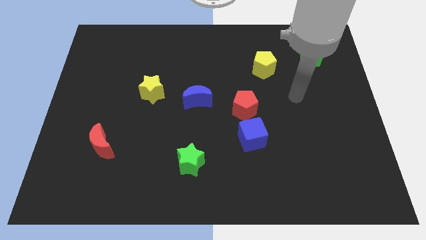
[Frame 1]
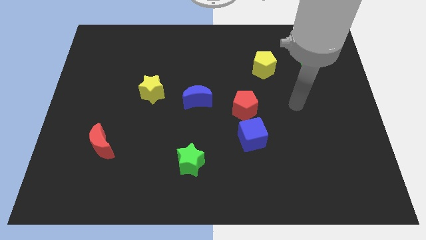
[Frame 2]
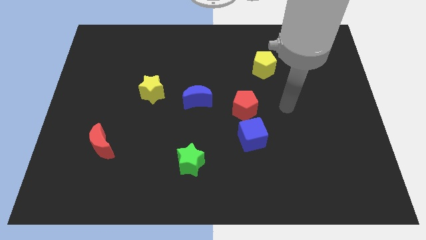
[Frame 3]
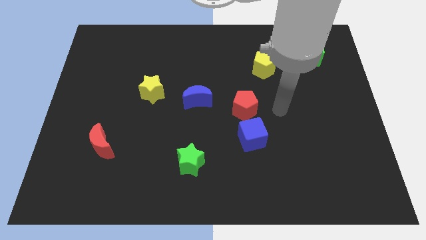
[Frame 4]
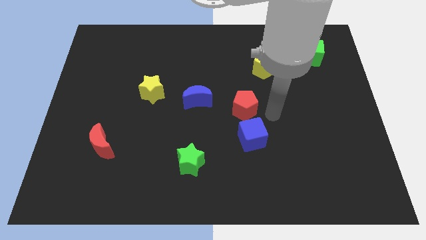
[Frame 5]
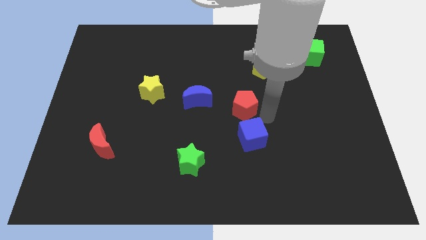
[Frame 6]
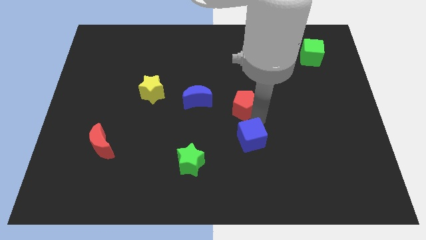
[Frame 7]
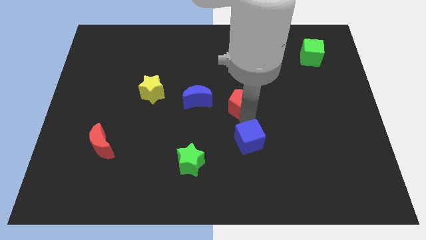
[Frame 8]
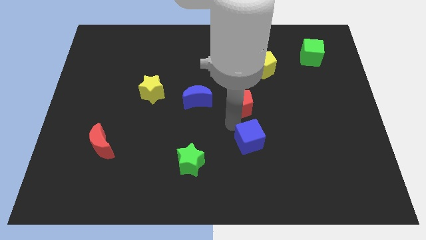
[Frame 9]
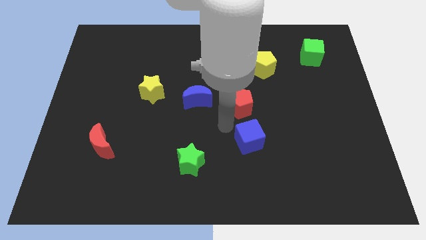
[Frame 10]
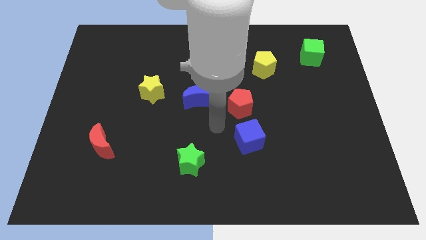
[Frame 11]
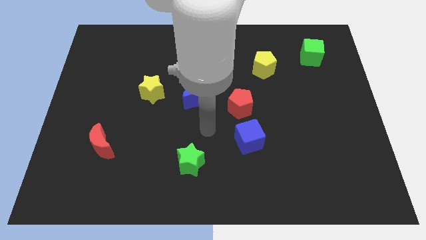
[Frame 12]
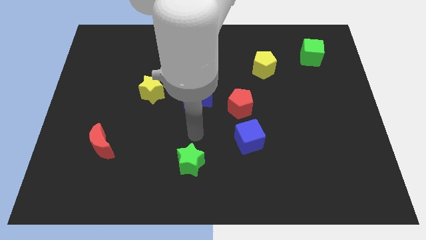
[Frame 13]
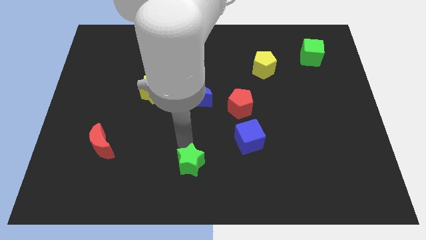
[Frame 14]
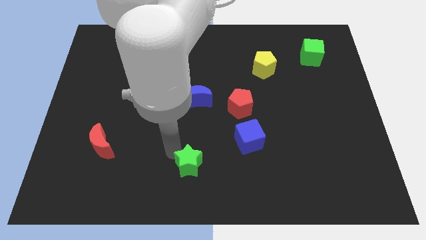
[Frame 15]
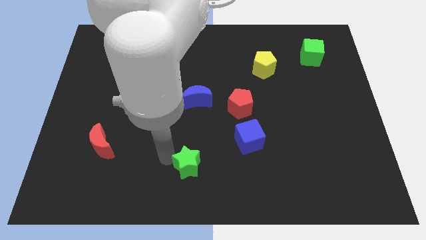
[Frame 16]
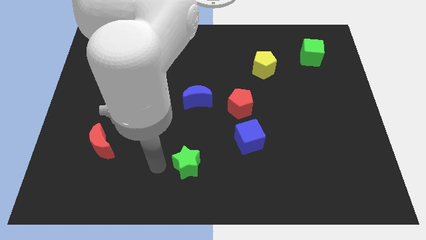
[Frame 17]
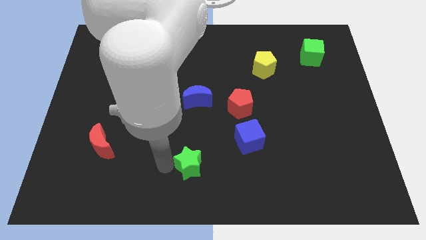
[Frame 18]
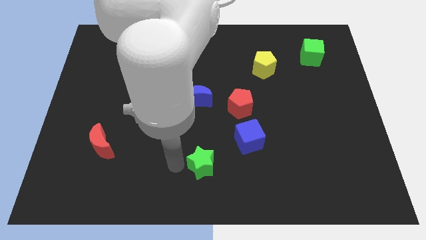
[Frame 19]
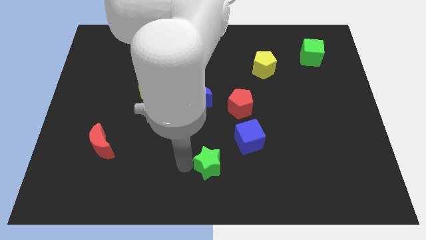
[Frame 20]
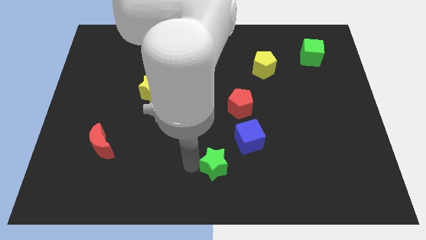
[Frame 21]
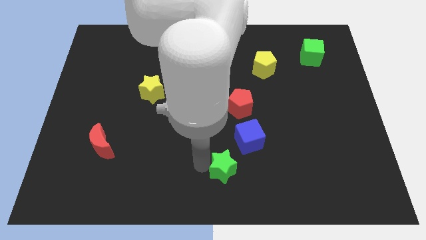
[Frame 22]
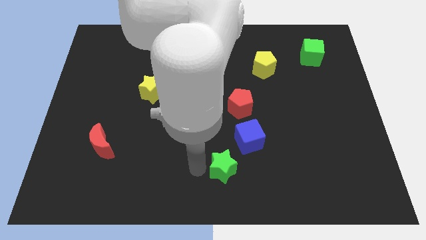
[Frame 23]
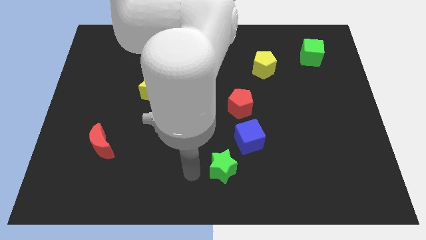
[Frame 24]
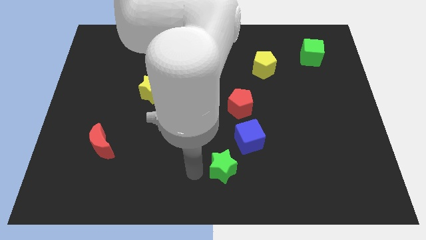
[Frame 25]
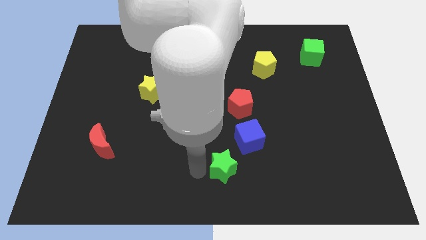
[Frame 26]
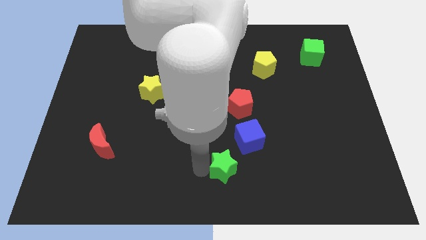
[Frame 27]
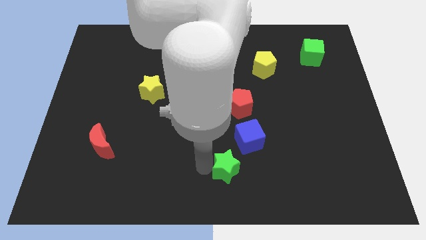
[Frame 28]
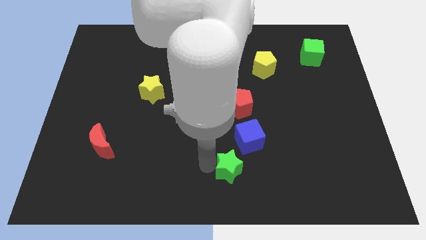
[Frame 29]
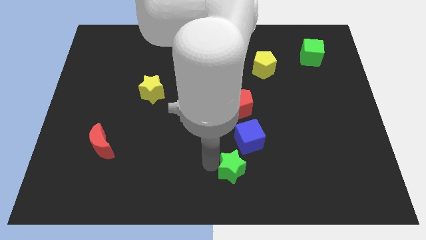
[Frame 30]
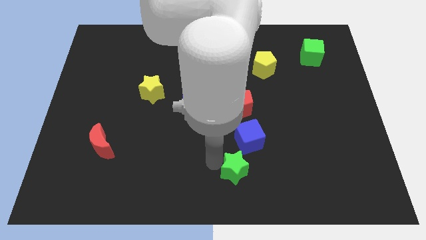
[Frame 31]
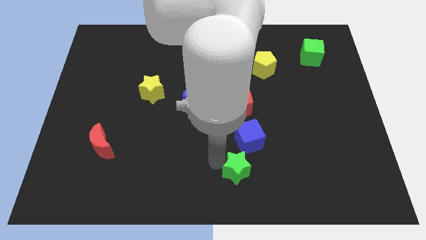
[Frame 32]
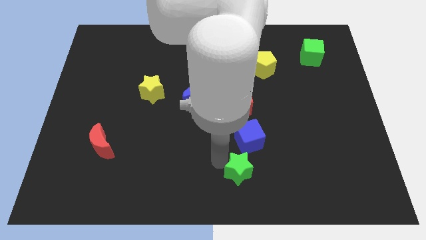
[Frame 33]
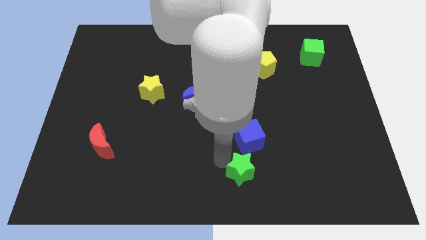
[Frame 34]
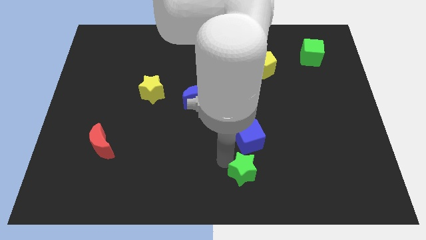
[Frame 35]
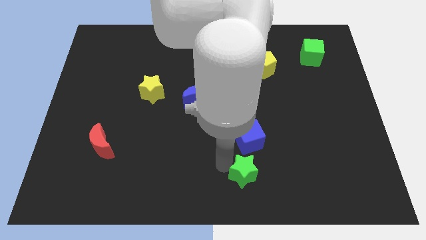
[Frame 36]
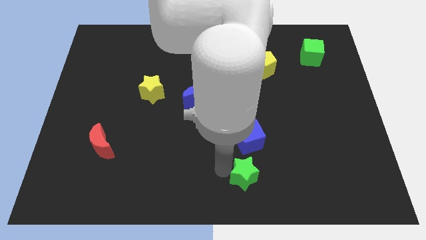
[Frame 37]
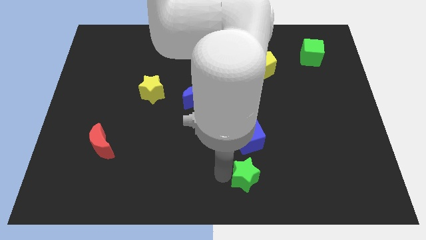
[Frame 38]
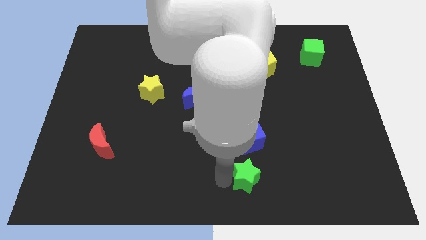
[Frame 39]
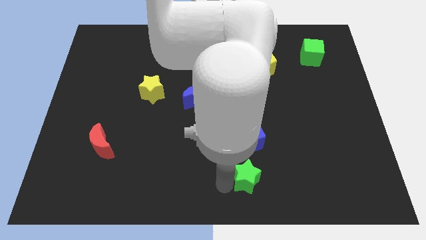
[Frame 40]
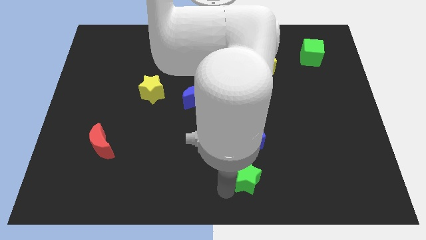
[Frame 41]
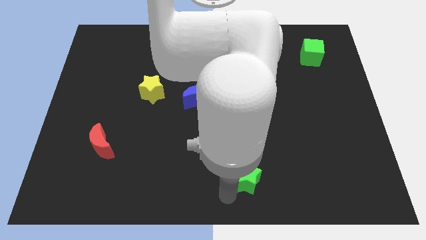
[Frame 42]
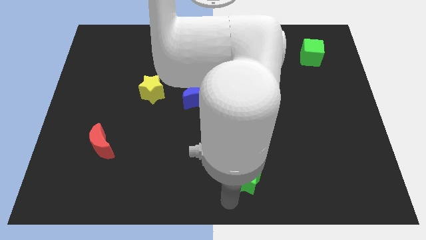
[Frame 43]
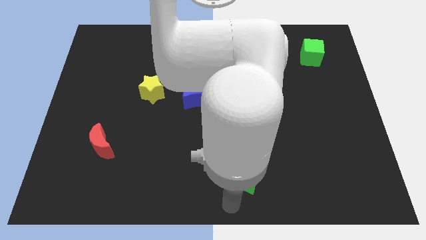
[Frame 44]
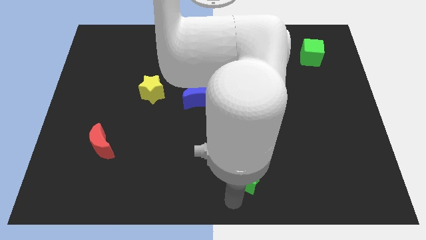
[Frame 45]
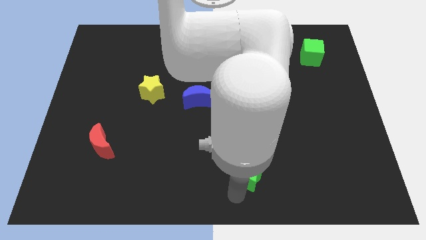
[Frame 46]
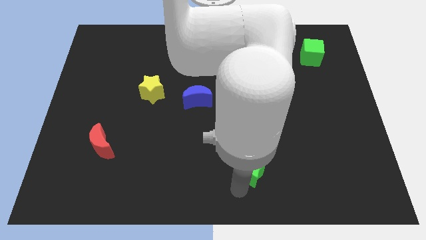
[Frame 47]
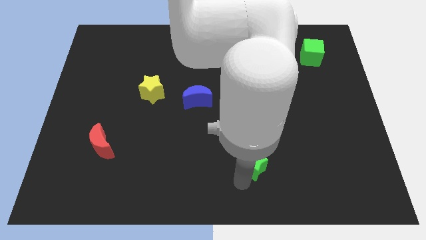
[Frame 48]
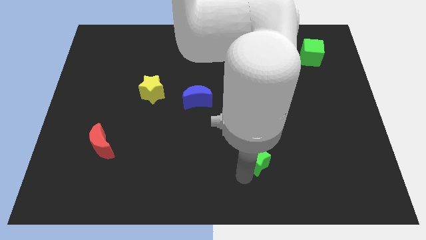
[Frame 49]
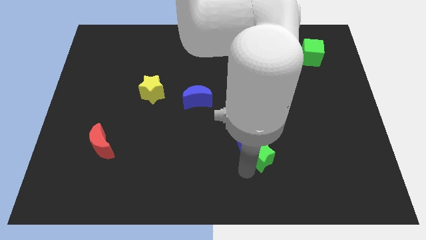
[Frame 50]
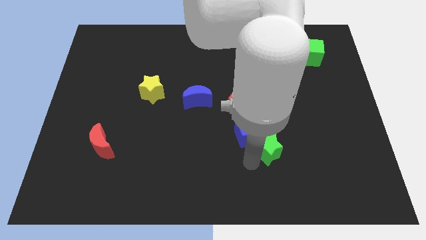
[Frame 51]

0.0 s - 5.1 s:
put the green star to the right of the blue cube

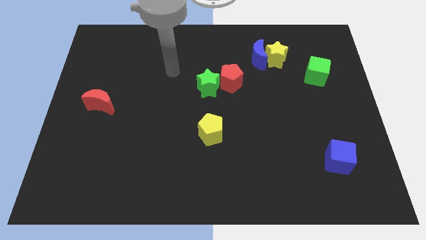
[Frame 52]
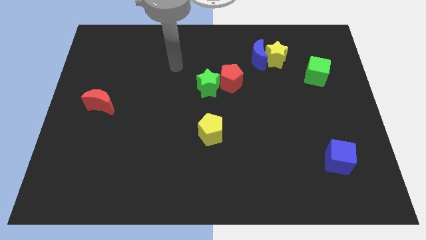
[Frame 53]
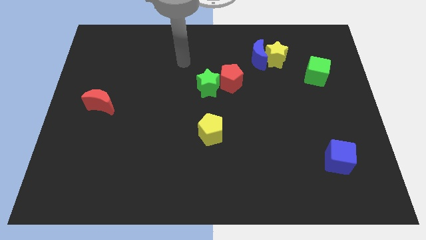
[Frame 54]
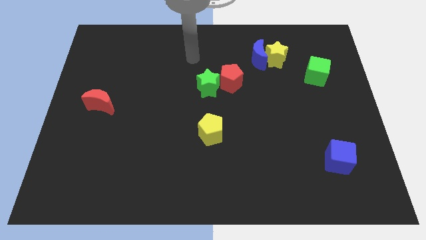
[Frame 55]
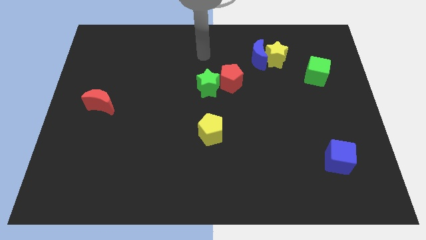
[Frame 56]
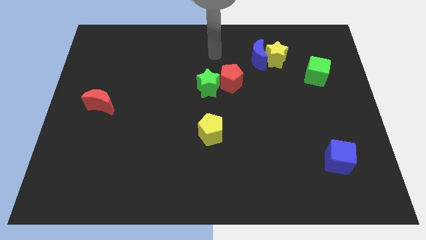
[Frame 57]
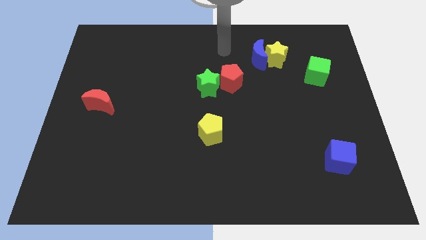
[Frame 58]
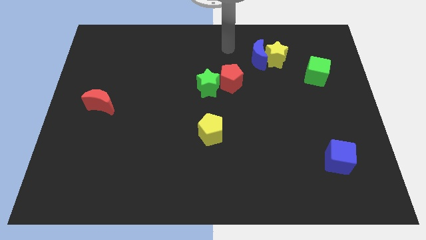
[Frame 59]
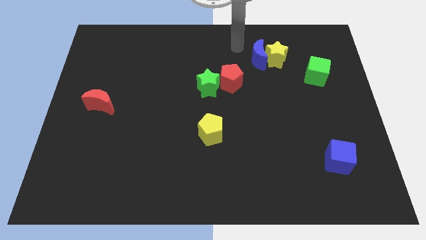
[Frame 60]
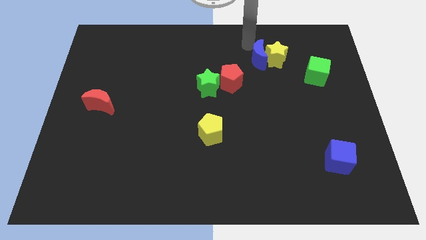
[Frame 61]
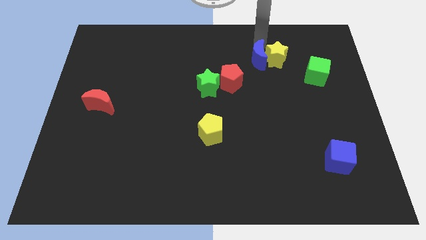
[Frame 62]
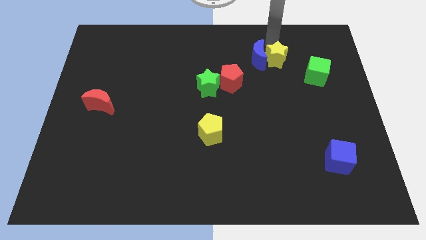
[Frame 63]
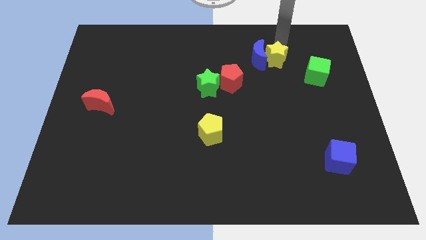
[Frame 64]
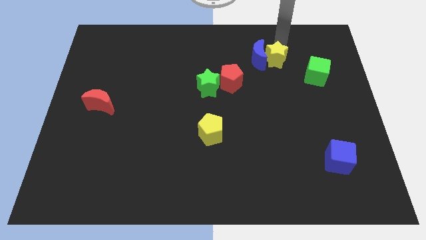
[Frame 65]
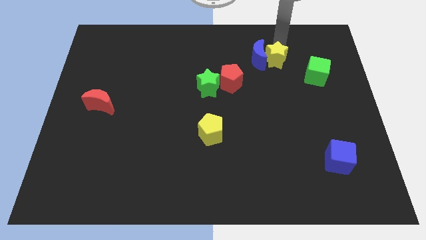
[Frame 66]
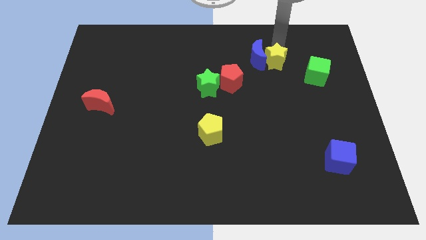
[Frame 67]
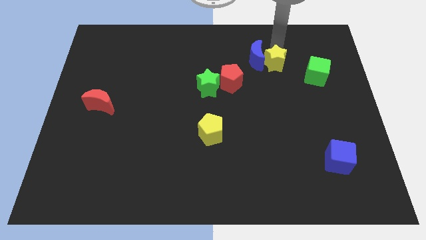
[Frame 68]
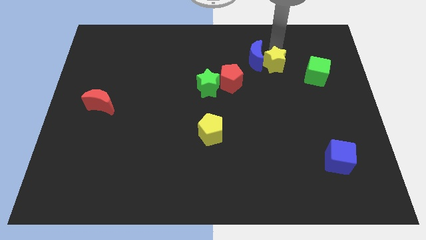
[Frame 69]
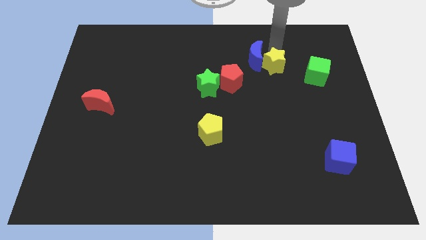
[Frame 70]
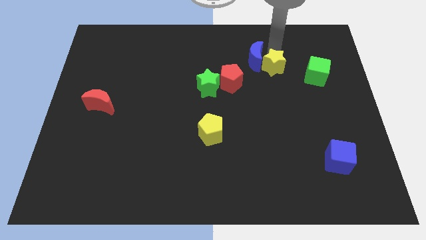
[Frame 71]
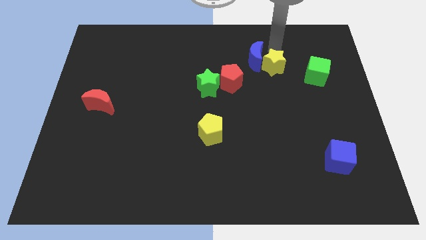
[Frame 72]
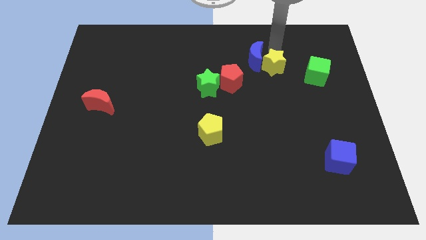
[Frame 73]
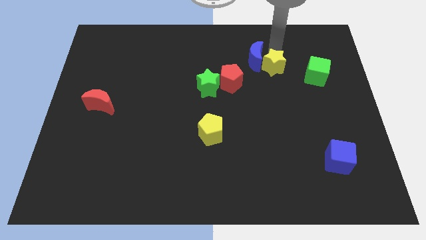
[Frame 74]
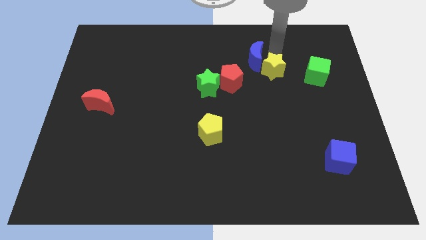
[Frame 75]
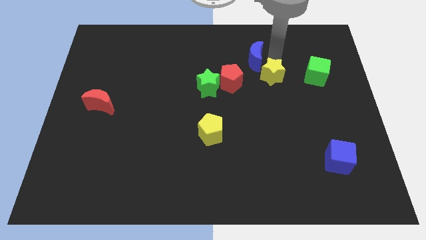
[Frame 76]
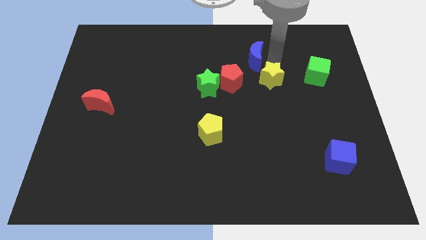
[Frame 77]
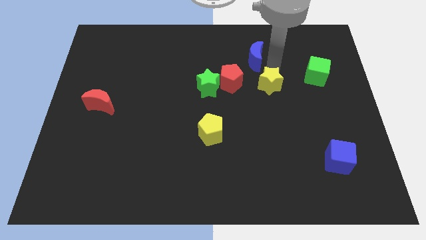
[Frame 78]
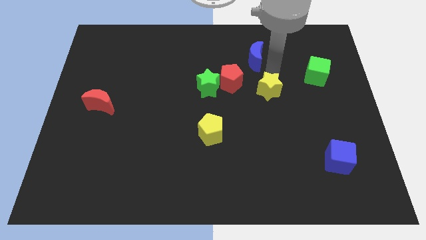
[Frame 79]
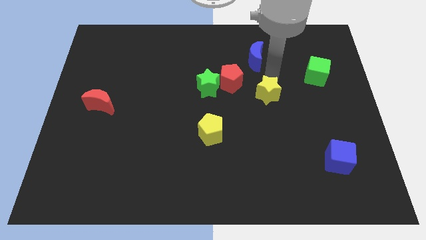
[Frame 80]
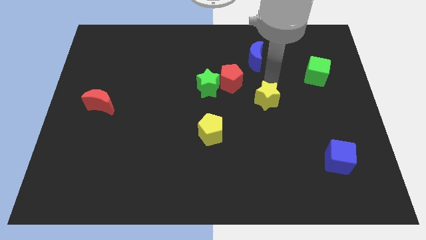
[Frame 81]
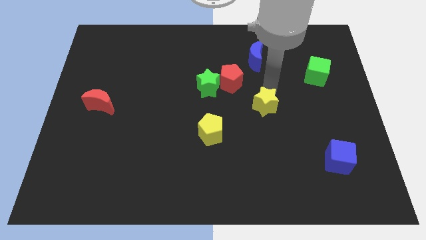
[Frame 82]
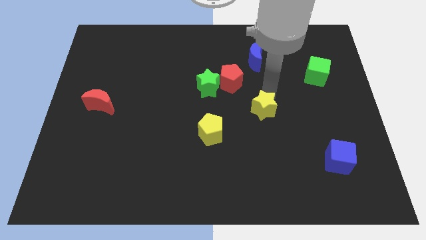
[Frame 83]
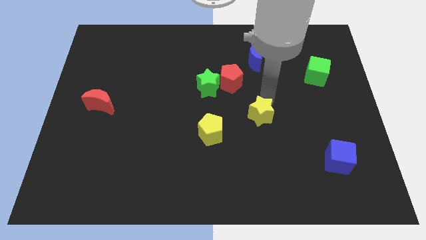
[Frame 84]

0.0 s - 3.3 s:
push the yellow star to the right side of the yellow pentagon
